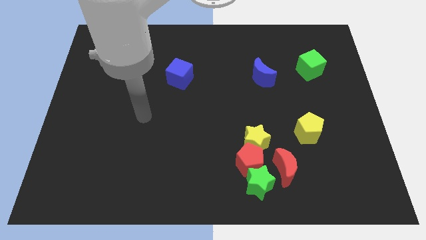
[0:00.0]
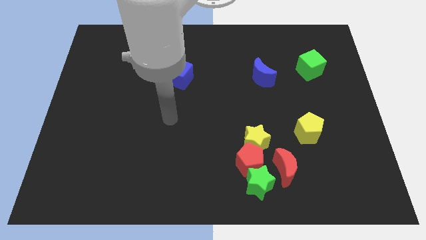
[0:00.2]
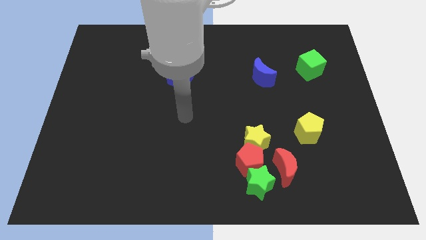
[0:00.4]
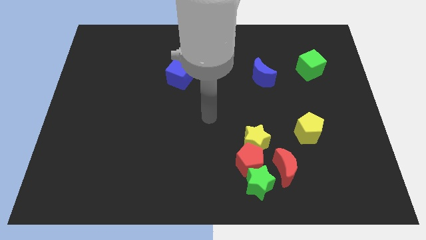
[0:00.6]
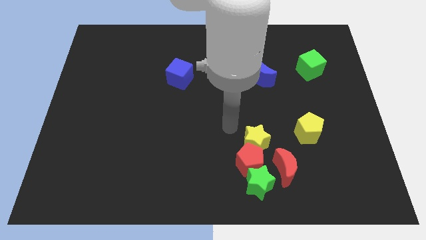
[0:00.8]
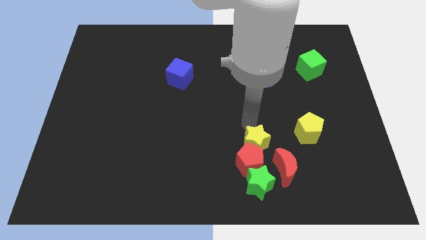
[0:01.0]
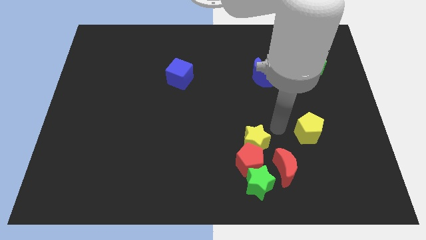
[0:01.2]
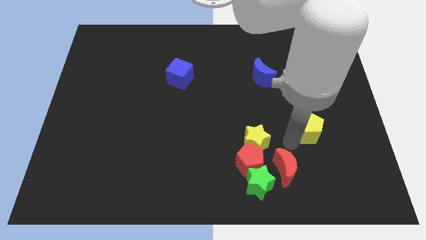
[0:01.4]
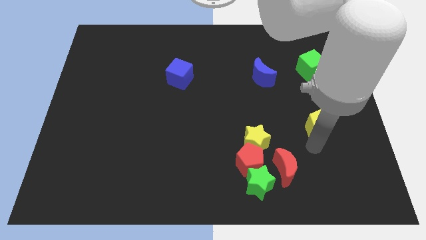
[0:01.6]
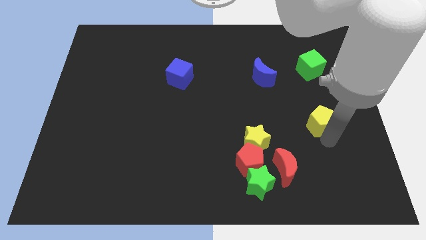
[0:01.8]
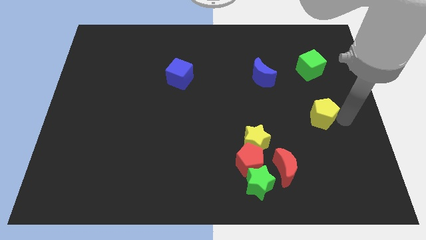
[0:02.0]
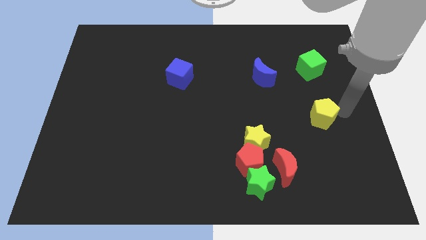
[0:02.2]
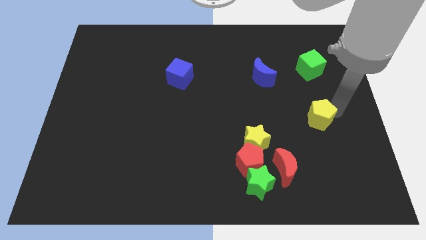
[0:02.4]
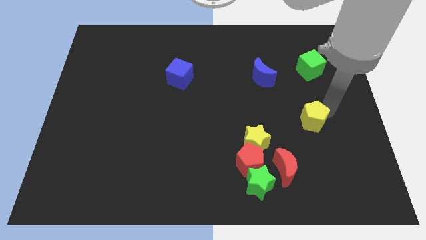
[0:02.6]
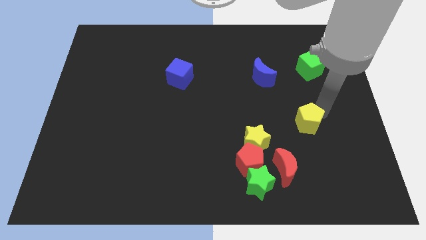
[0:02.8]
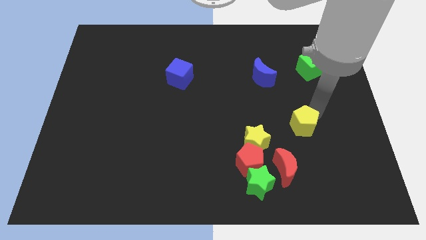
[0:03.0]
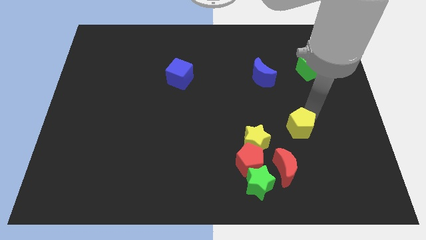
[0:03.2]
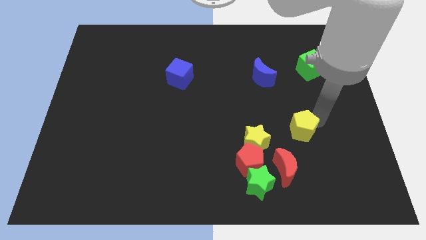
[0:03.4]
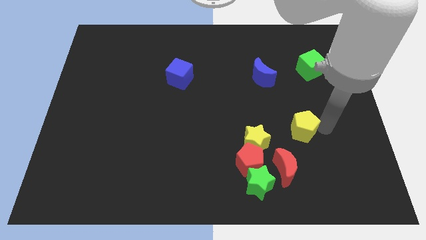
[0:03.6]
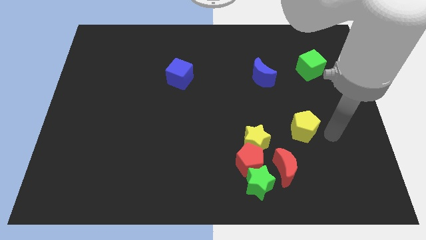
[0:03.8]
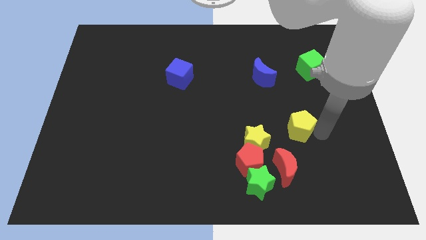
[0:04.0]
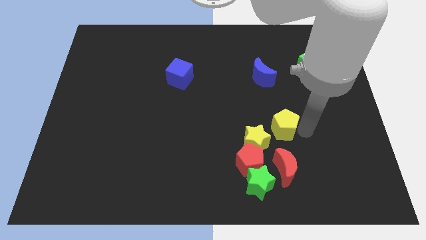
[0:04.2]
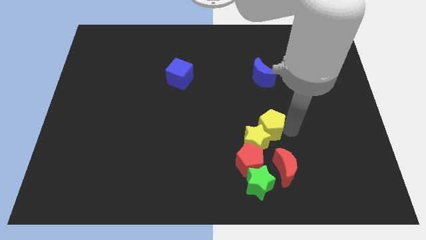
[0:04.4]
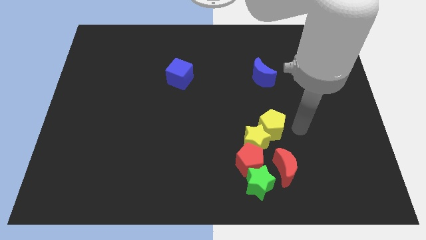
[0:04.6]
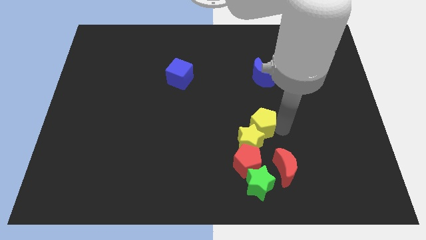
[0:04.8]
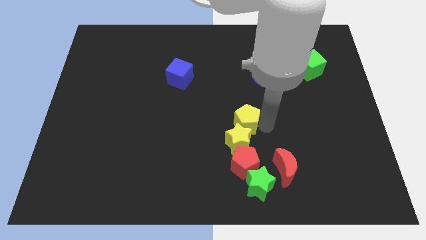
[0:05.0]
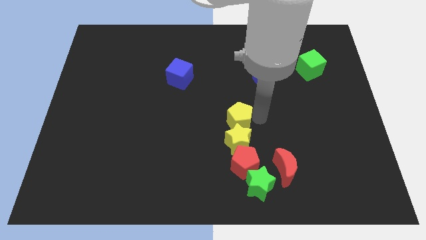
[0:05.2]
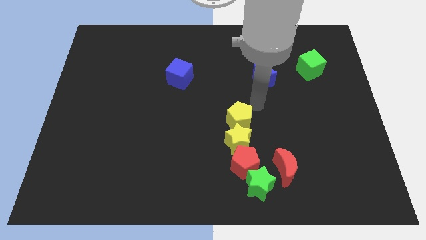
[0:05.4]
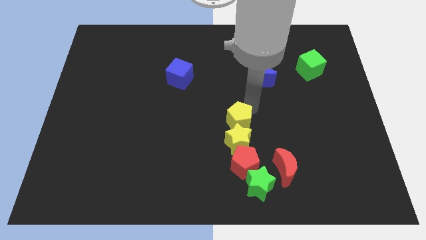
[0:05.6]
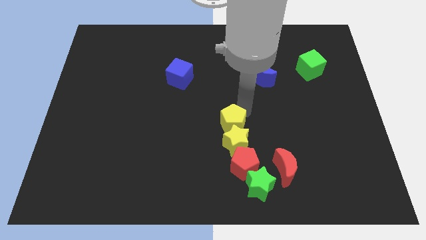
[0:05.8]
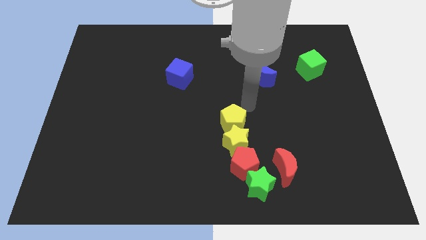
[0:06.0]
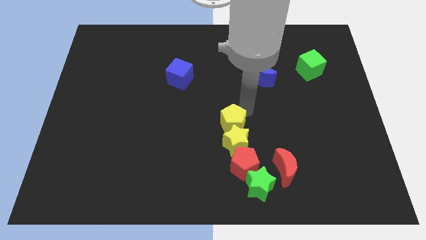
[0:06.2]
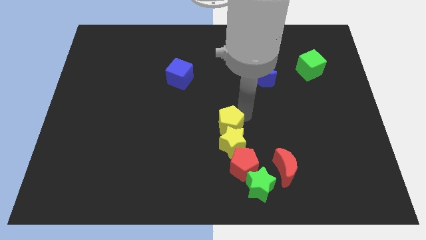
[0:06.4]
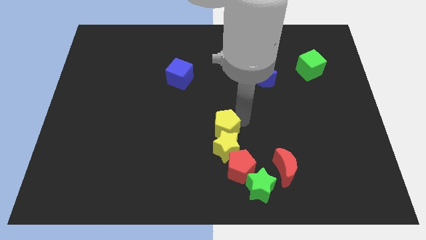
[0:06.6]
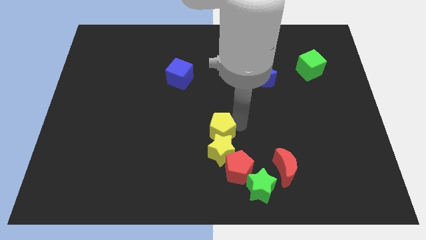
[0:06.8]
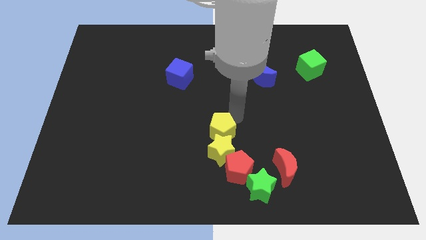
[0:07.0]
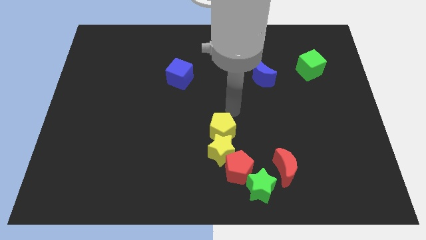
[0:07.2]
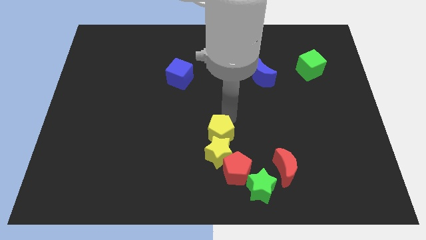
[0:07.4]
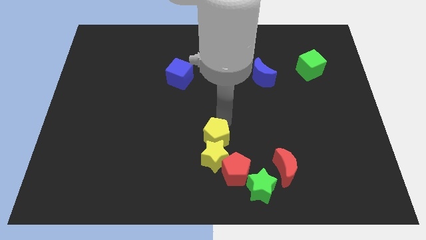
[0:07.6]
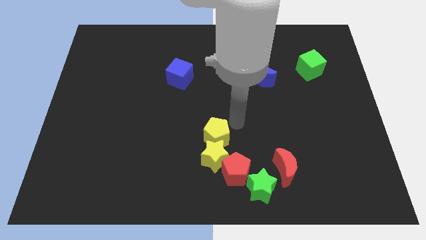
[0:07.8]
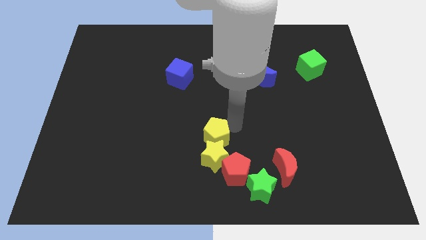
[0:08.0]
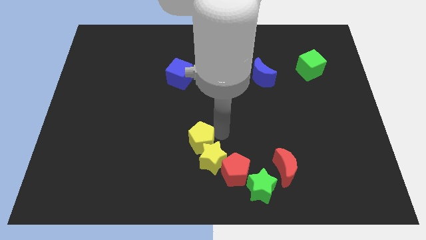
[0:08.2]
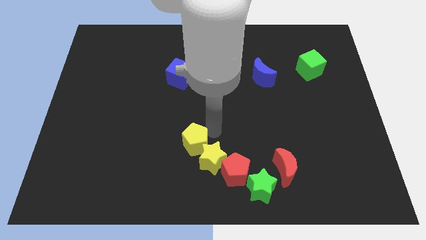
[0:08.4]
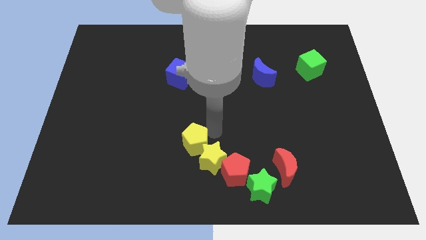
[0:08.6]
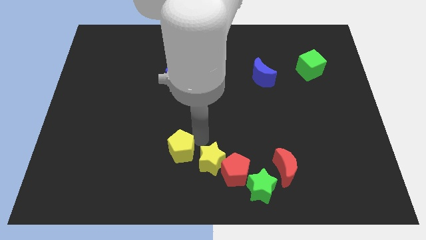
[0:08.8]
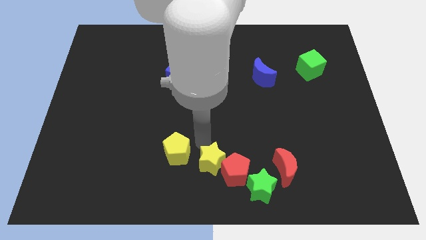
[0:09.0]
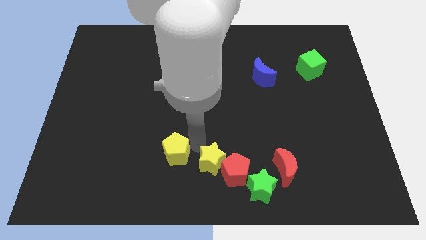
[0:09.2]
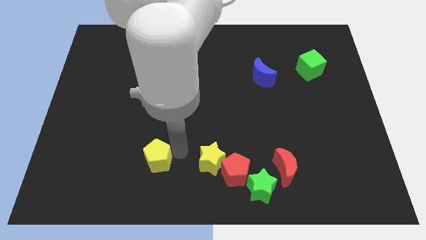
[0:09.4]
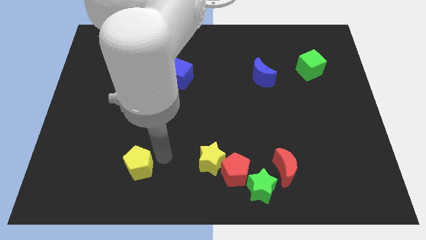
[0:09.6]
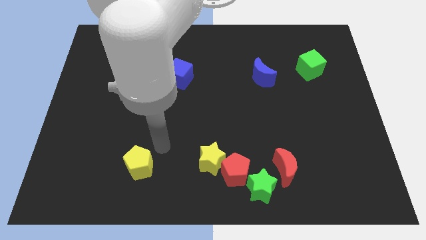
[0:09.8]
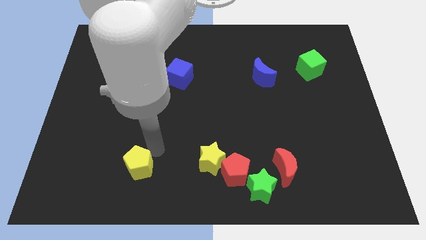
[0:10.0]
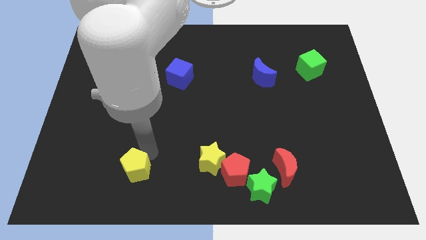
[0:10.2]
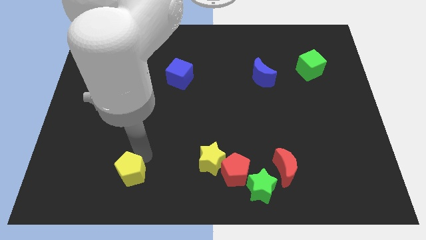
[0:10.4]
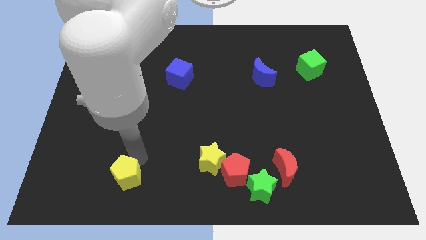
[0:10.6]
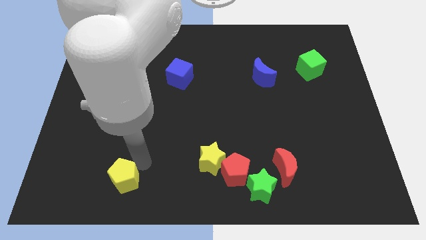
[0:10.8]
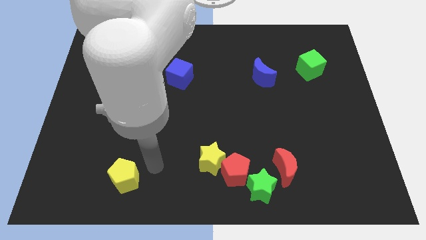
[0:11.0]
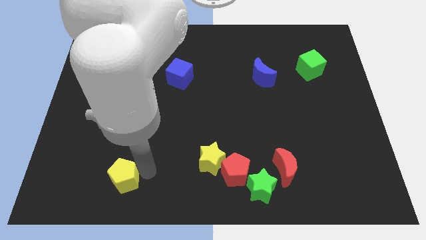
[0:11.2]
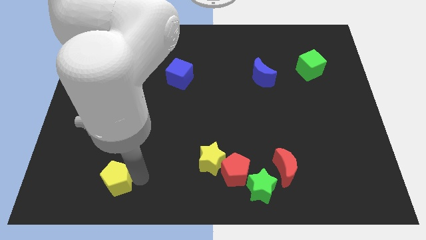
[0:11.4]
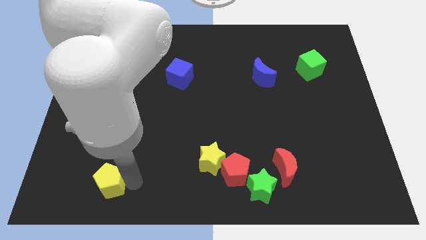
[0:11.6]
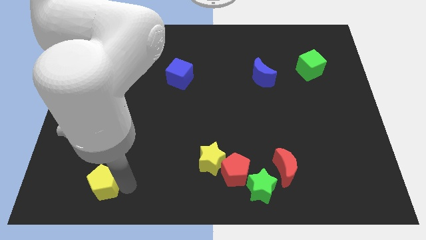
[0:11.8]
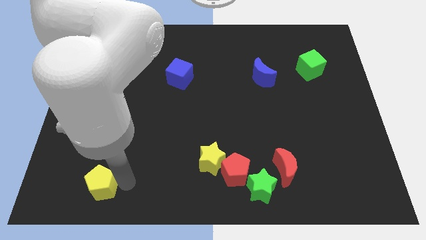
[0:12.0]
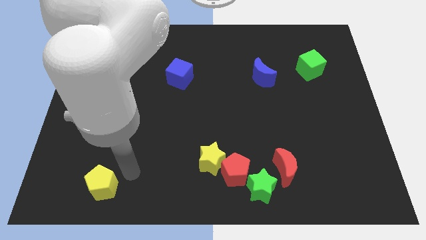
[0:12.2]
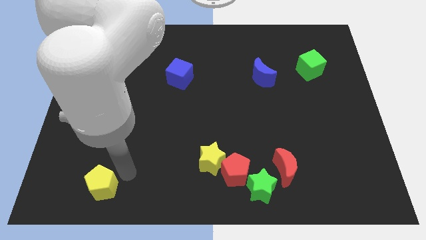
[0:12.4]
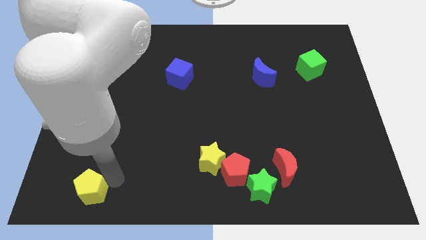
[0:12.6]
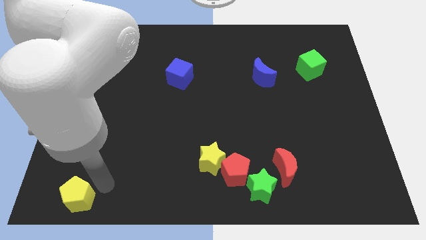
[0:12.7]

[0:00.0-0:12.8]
move the yellow pentagon to the bottom left corner
